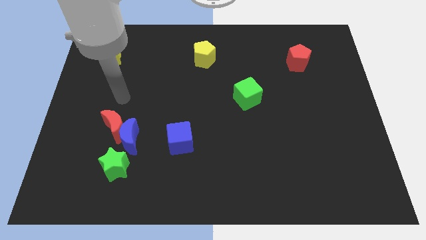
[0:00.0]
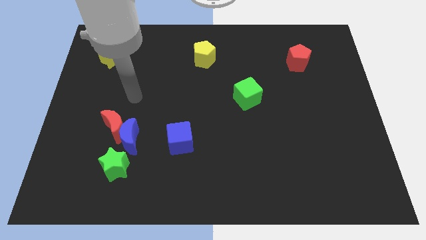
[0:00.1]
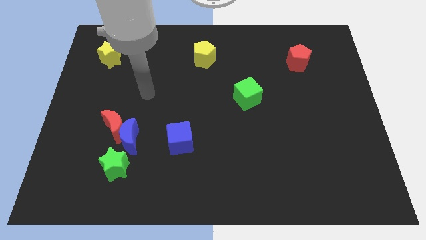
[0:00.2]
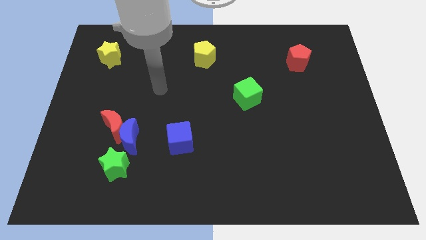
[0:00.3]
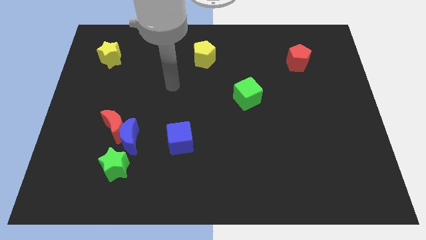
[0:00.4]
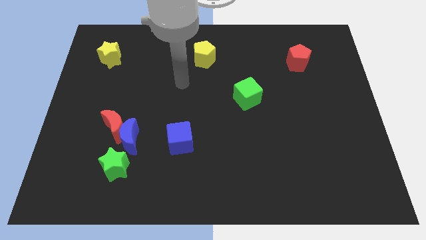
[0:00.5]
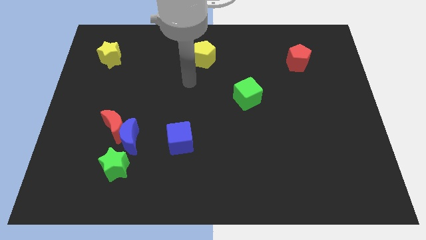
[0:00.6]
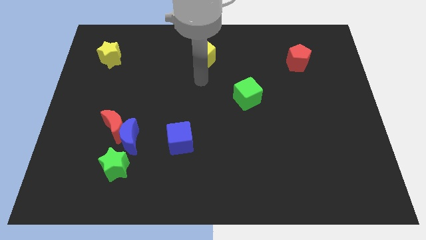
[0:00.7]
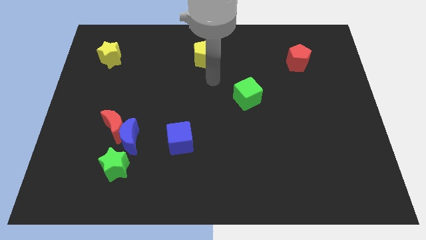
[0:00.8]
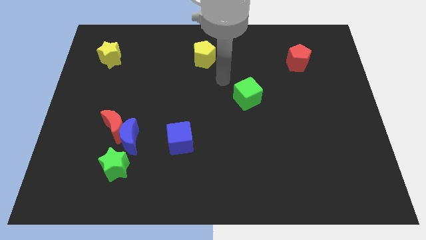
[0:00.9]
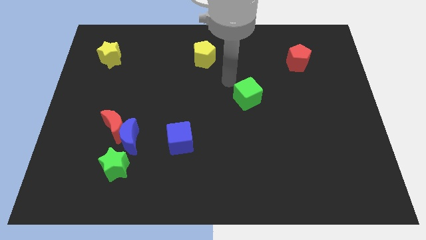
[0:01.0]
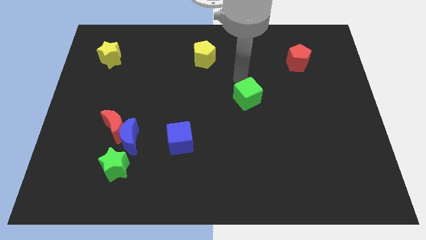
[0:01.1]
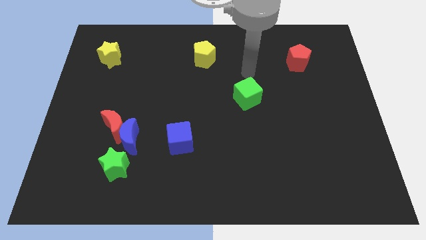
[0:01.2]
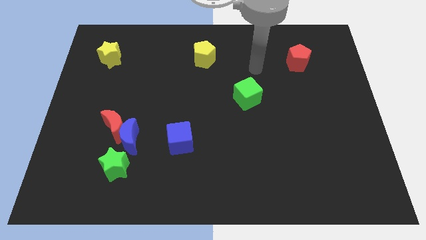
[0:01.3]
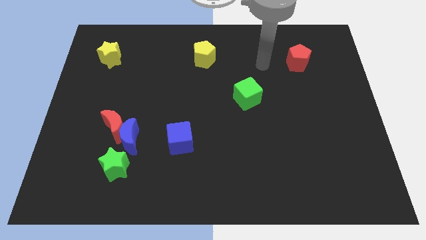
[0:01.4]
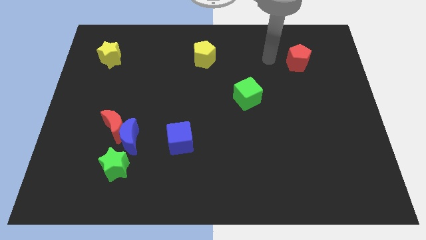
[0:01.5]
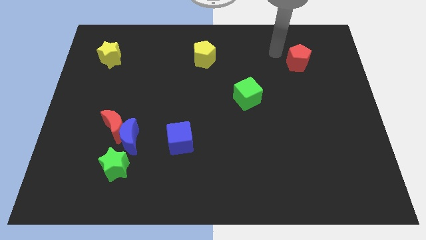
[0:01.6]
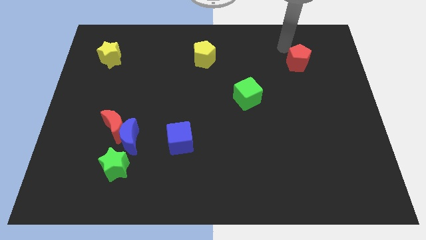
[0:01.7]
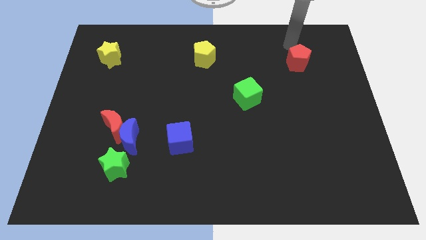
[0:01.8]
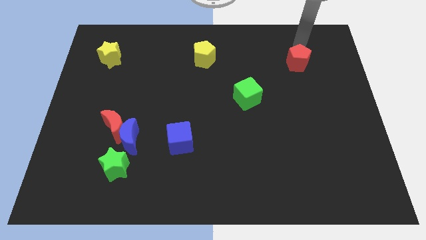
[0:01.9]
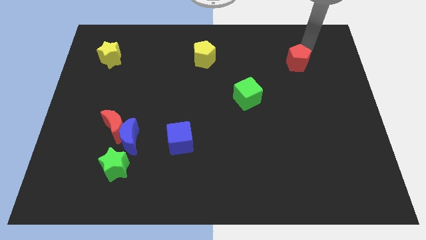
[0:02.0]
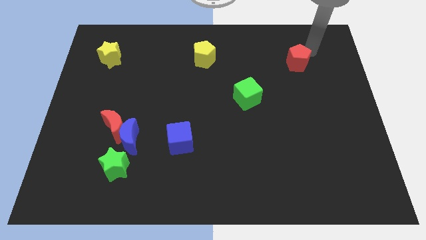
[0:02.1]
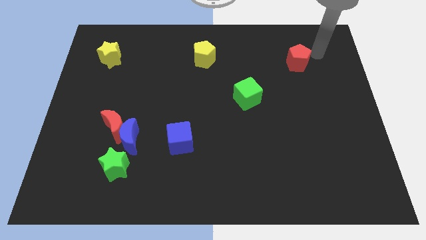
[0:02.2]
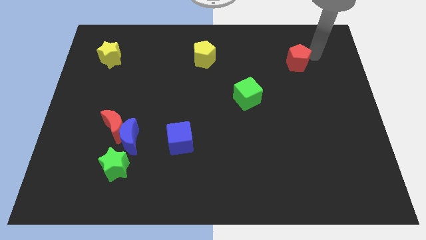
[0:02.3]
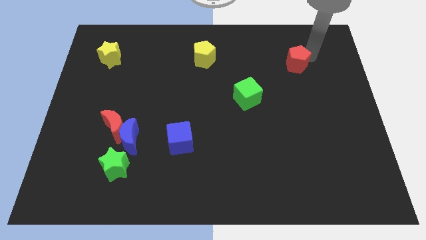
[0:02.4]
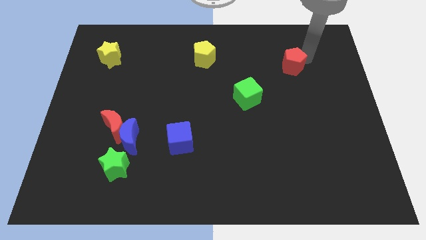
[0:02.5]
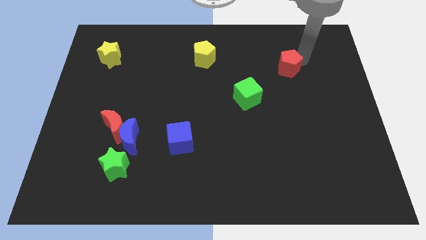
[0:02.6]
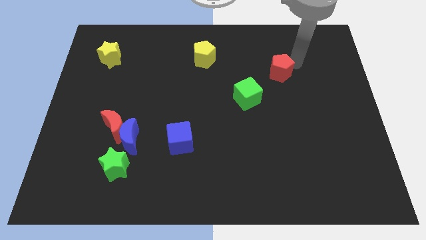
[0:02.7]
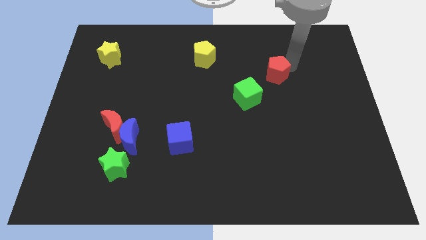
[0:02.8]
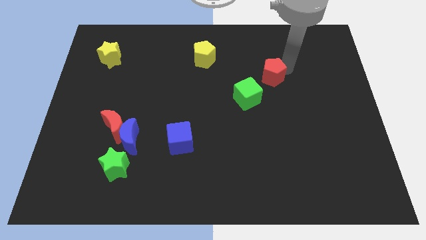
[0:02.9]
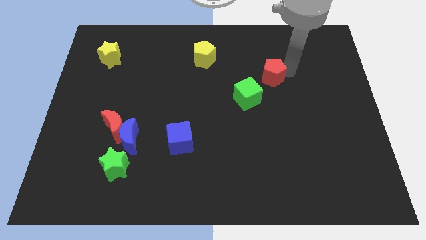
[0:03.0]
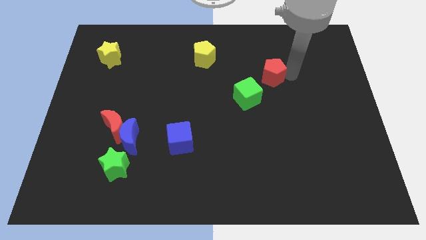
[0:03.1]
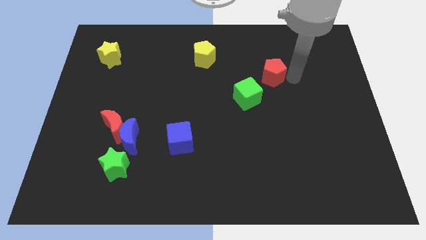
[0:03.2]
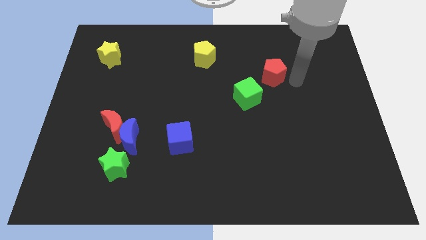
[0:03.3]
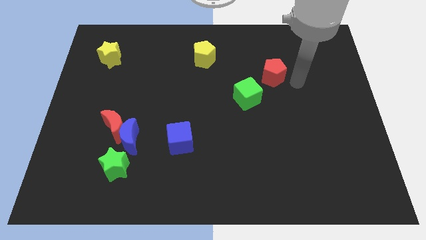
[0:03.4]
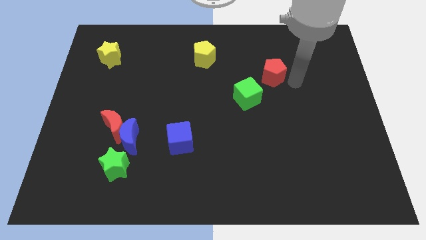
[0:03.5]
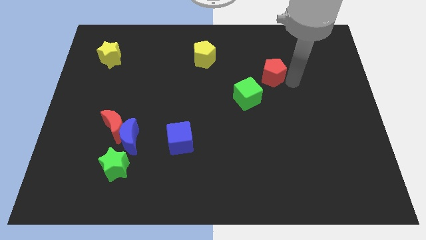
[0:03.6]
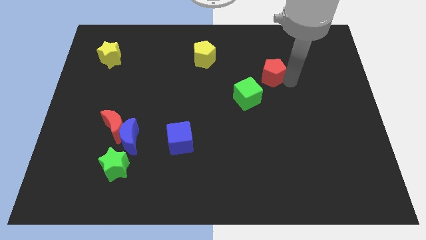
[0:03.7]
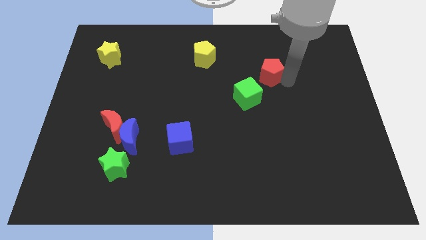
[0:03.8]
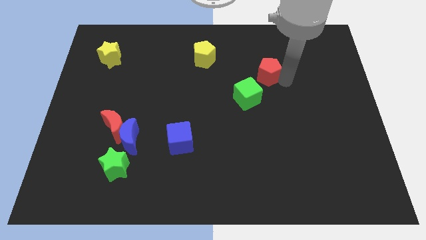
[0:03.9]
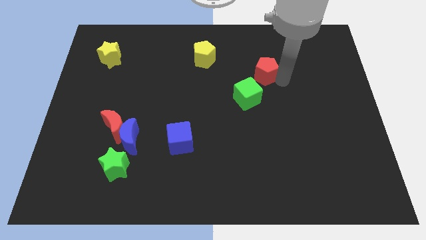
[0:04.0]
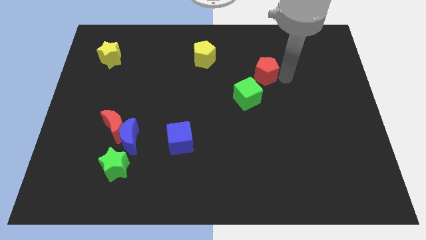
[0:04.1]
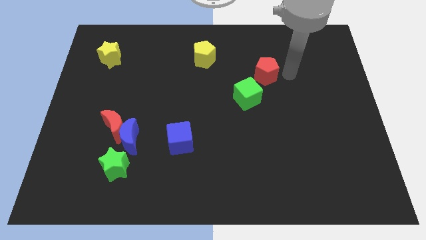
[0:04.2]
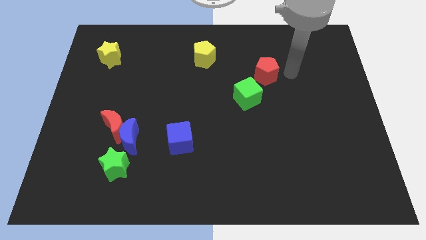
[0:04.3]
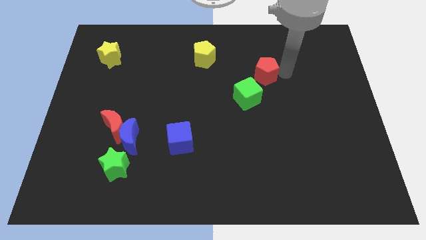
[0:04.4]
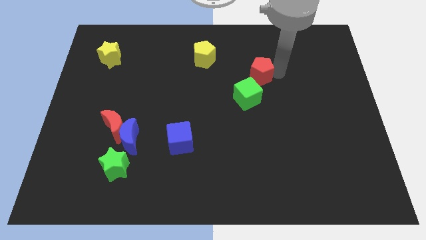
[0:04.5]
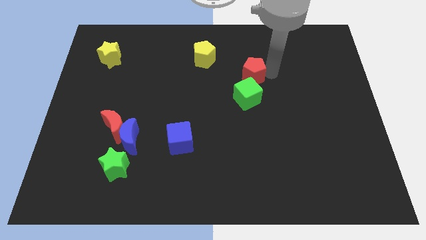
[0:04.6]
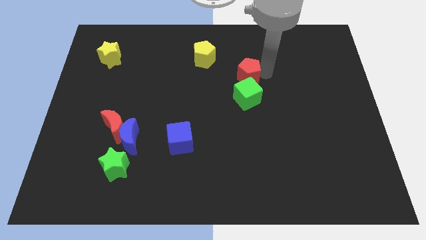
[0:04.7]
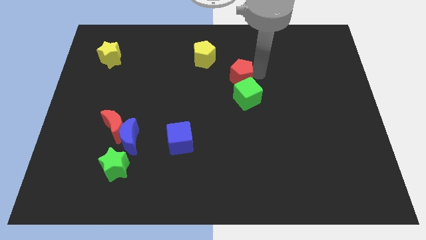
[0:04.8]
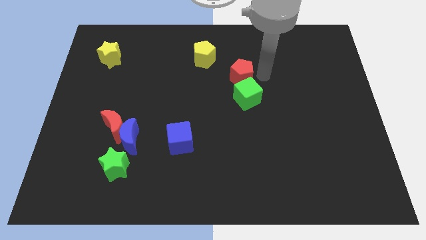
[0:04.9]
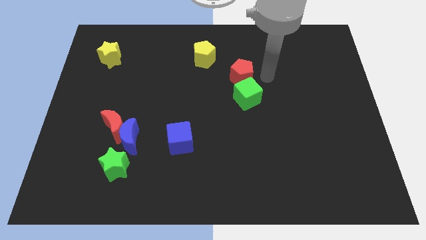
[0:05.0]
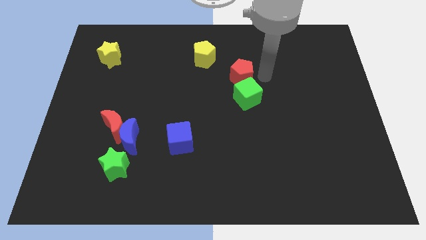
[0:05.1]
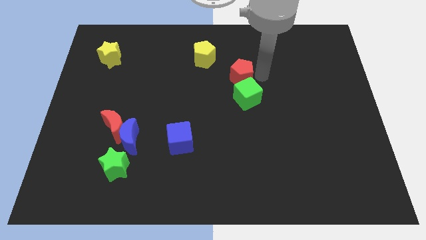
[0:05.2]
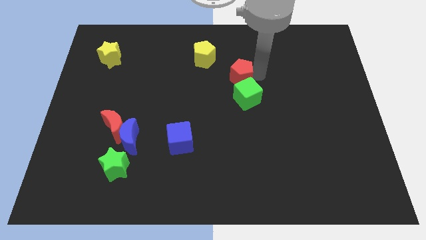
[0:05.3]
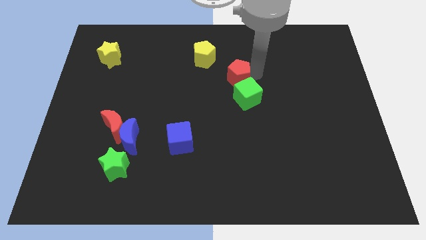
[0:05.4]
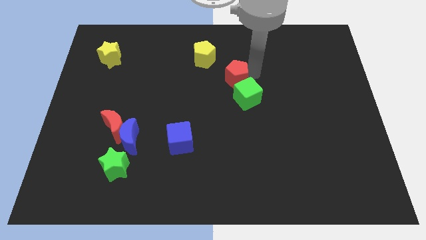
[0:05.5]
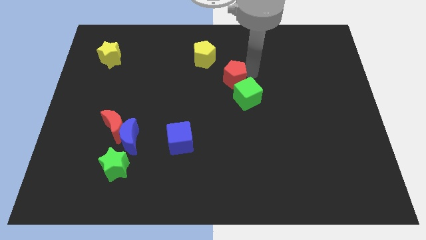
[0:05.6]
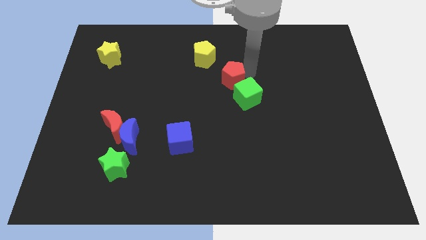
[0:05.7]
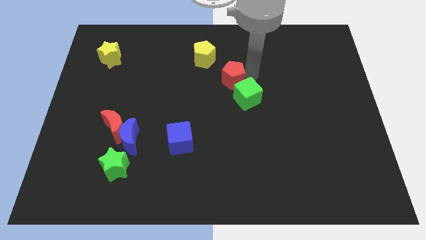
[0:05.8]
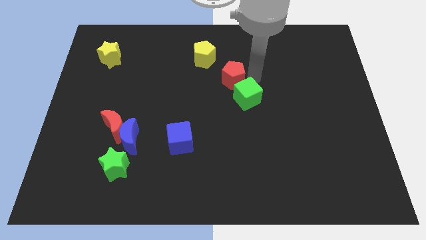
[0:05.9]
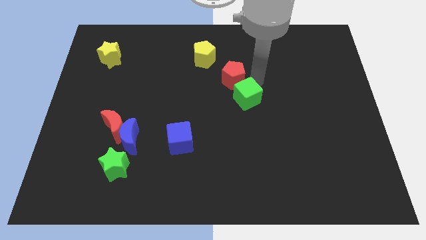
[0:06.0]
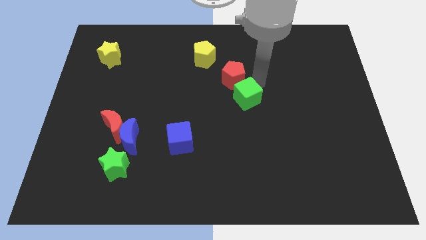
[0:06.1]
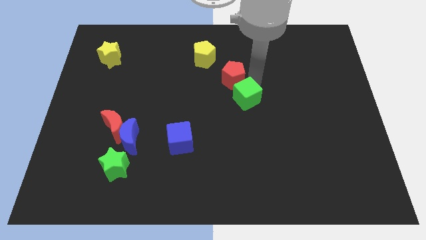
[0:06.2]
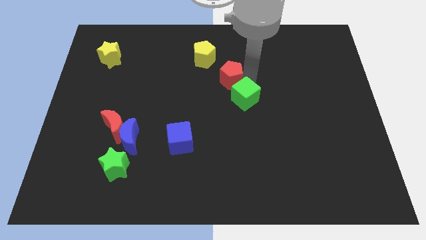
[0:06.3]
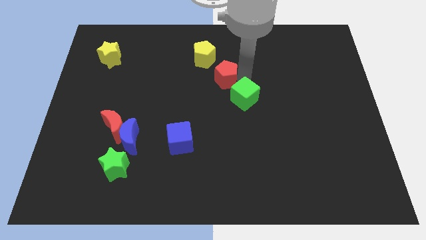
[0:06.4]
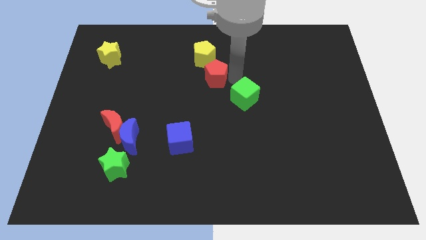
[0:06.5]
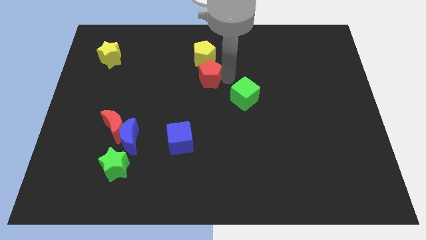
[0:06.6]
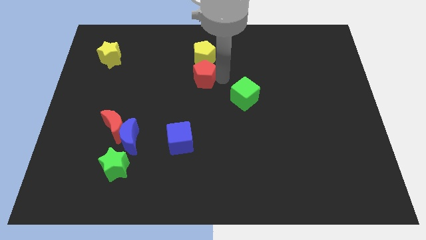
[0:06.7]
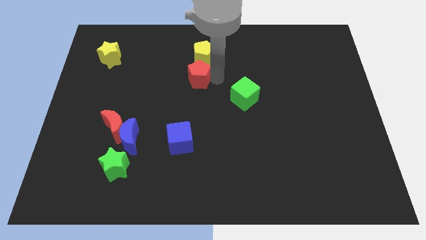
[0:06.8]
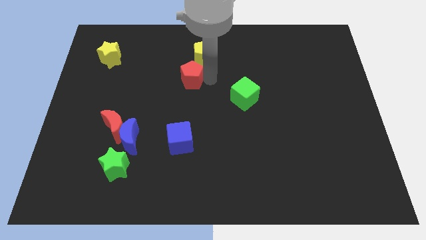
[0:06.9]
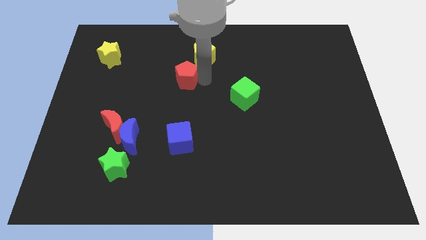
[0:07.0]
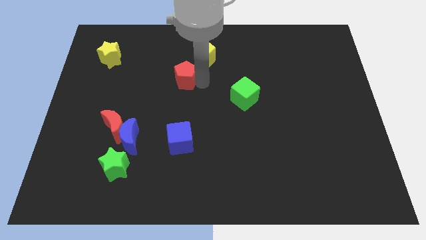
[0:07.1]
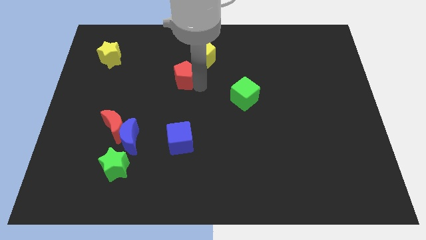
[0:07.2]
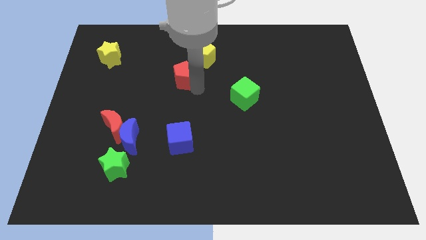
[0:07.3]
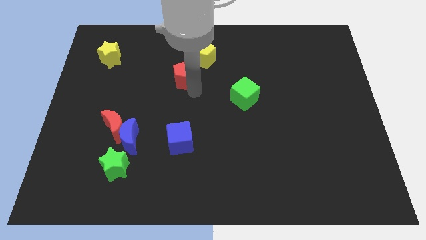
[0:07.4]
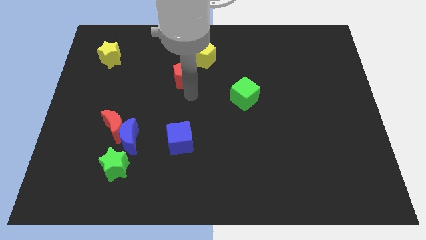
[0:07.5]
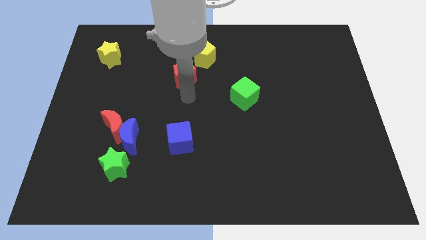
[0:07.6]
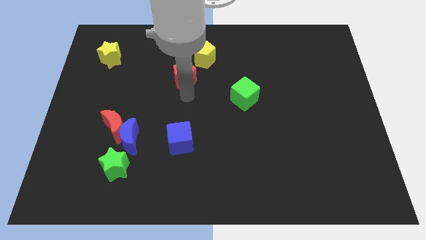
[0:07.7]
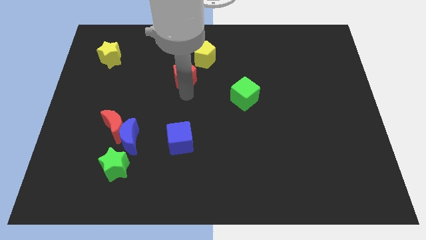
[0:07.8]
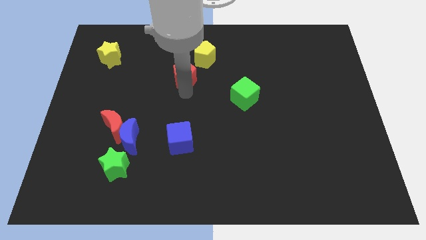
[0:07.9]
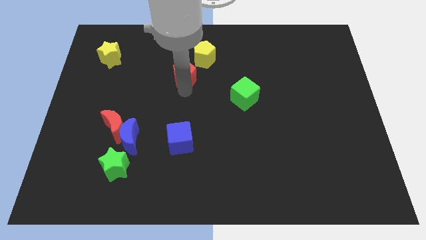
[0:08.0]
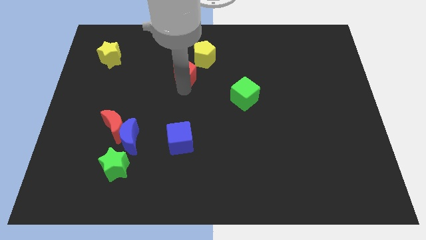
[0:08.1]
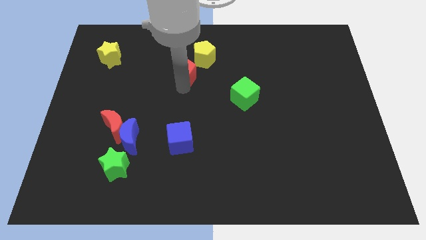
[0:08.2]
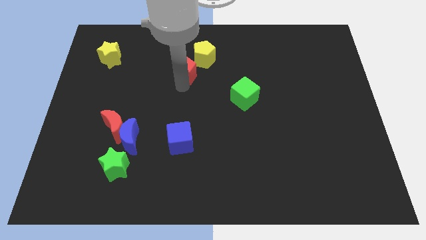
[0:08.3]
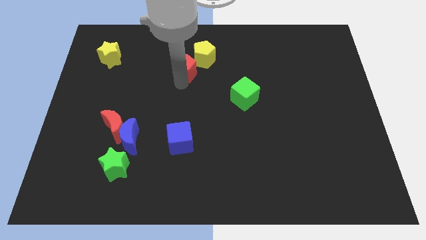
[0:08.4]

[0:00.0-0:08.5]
push the red pentagon left of the yellow pentagon
